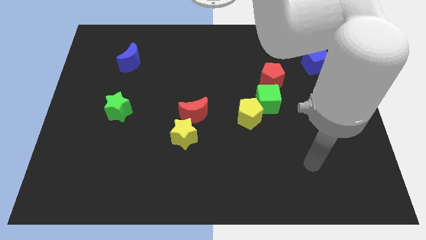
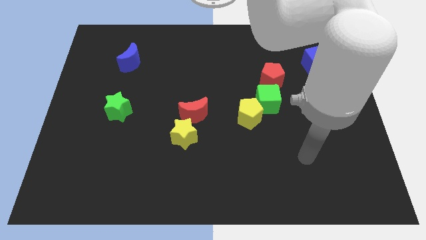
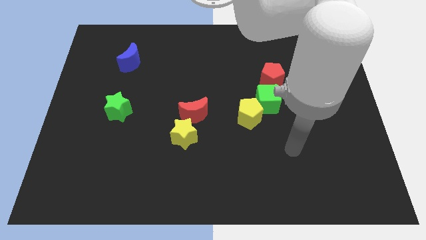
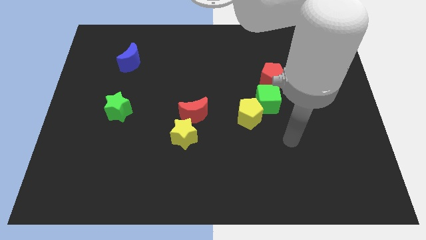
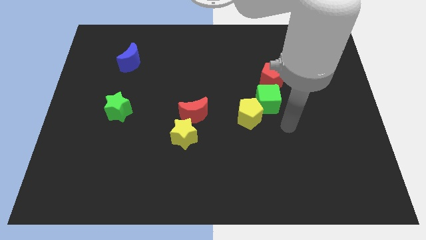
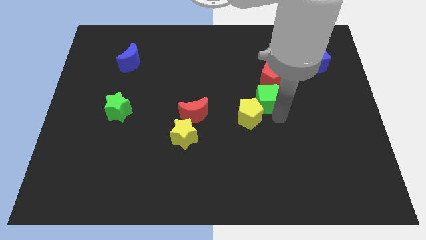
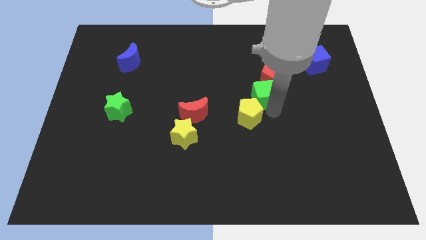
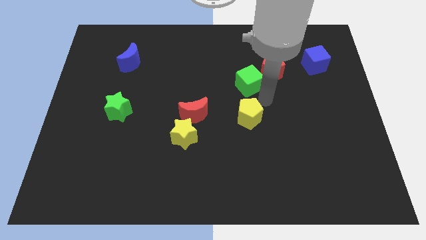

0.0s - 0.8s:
separate the yellow pentagon from the green cube

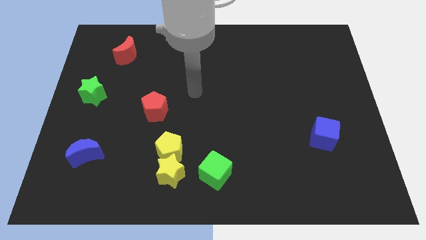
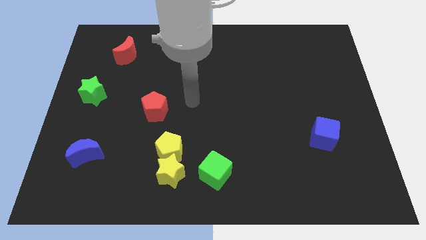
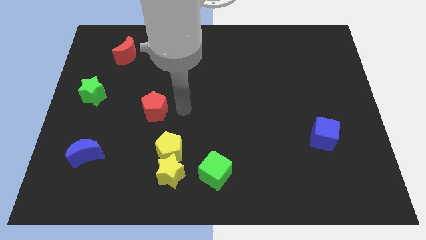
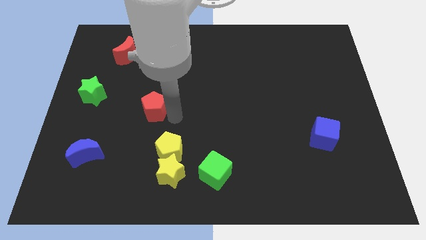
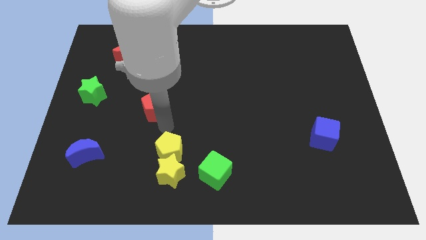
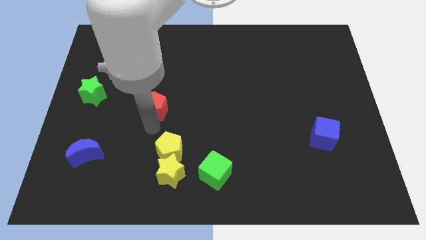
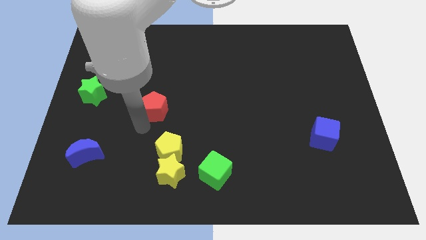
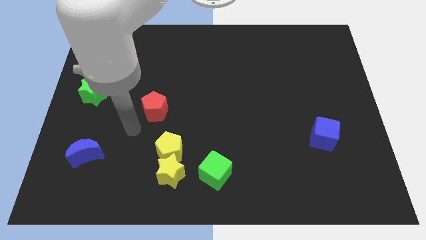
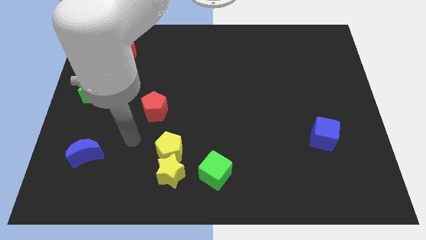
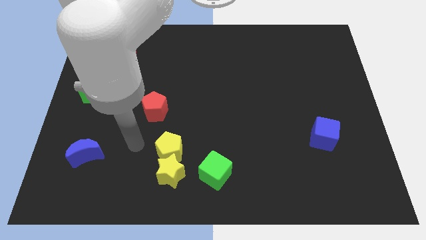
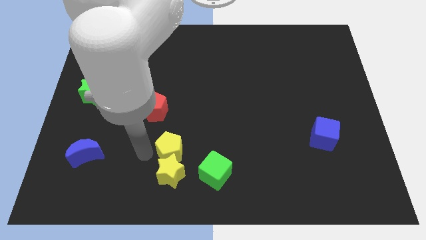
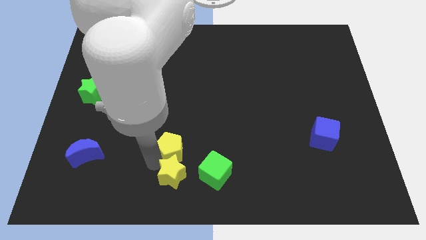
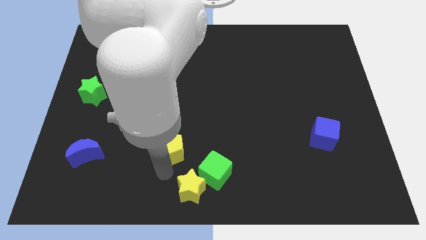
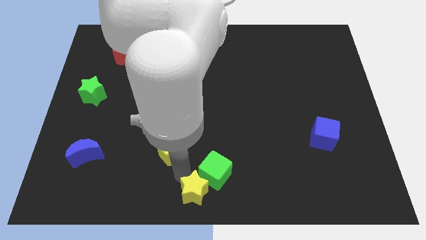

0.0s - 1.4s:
separate the yellow pentagon from the yellow star

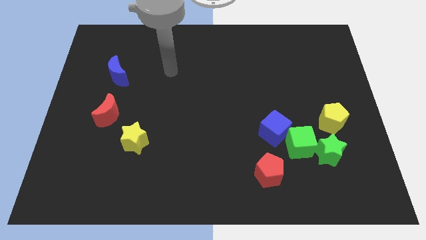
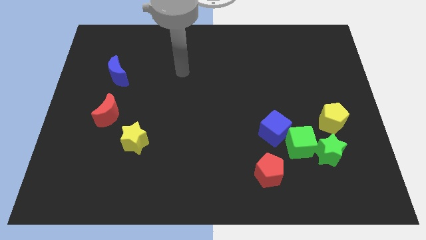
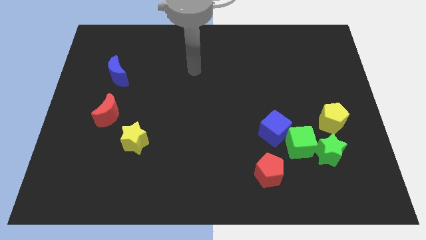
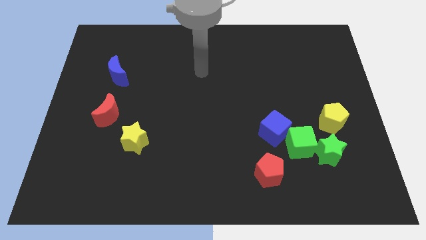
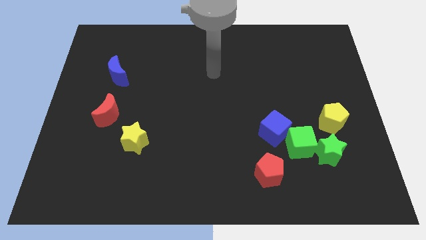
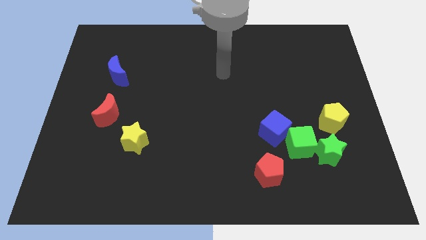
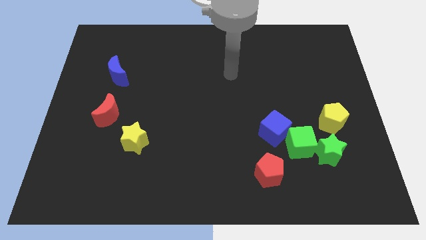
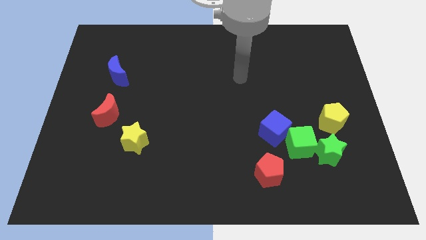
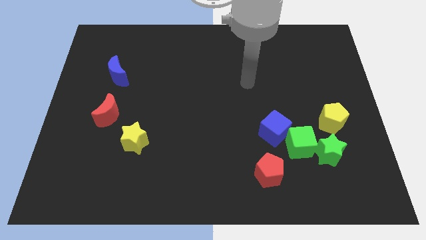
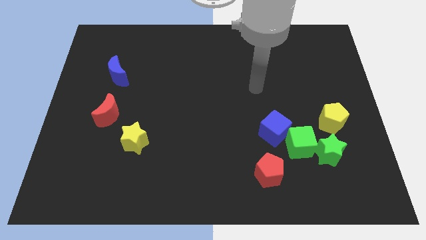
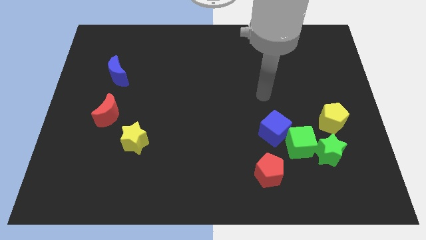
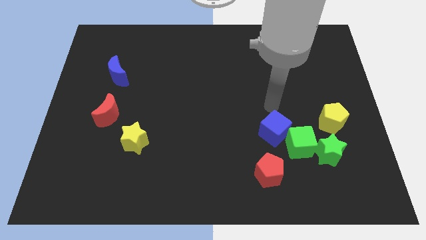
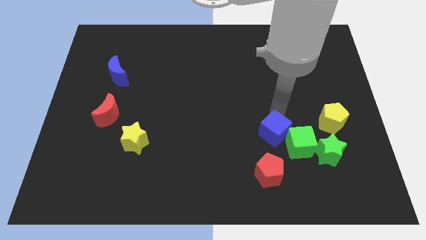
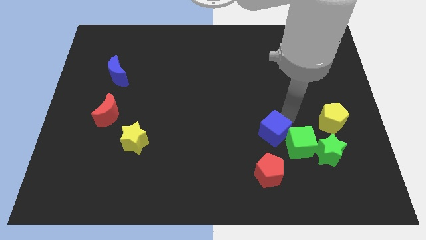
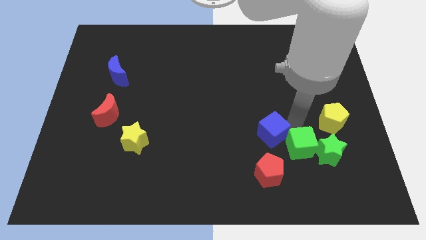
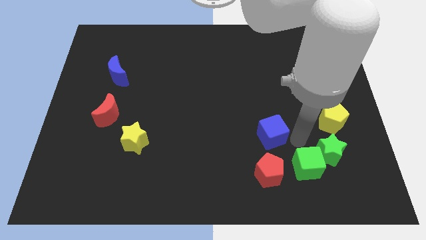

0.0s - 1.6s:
move the blue cube away from the green cube

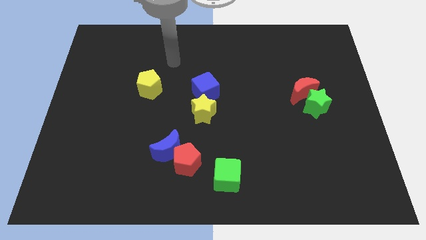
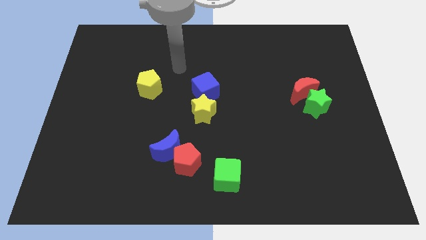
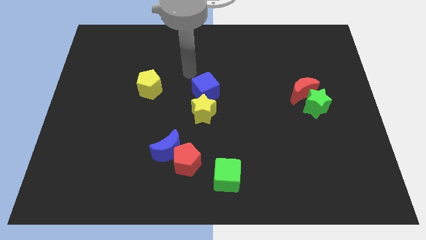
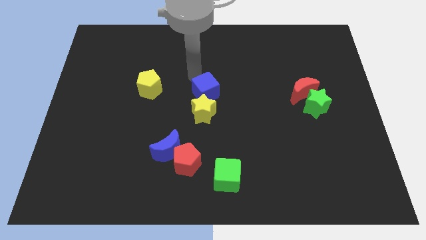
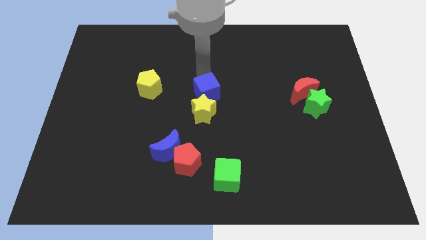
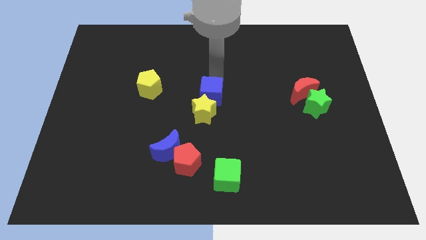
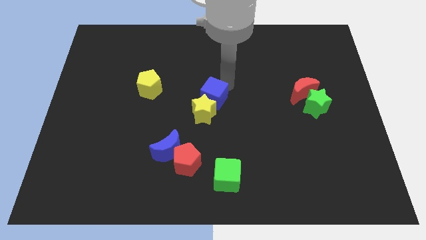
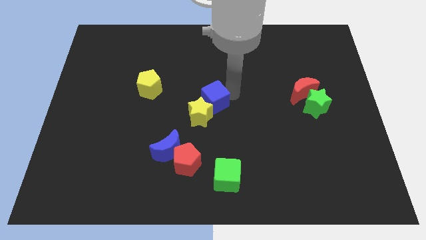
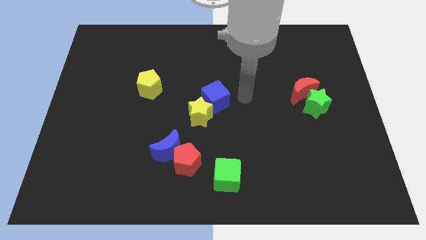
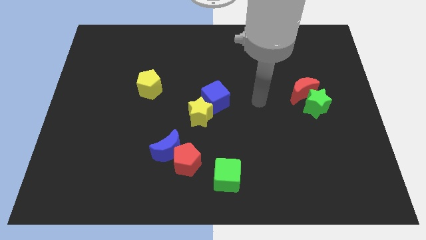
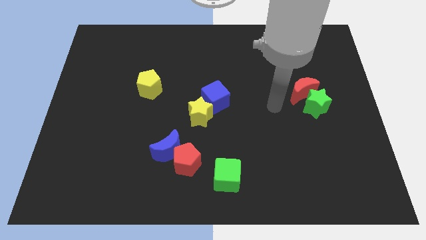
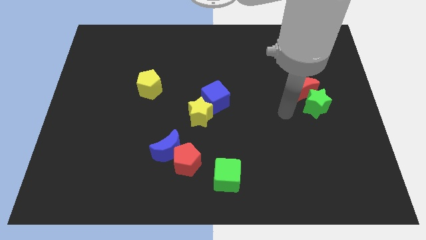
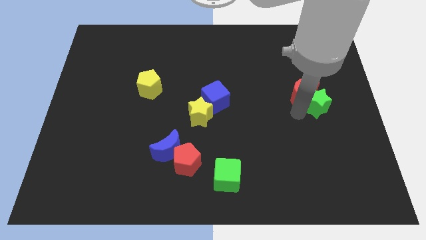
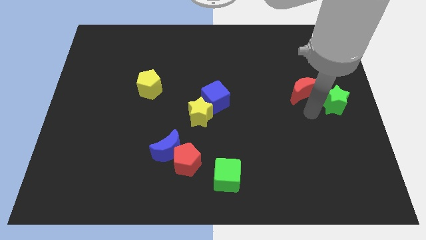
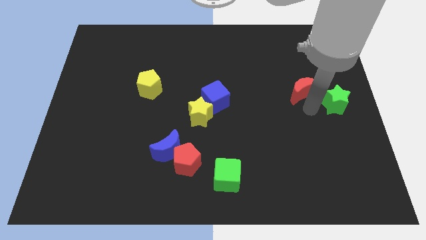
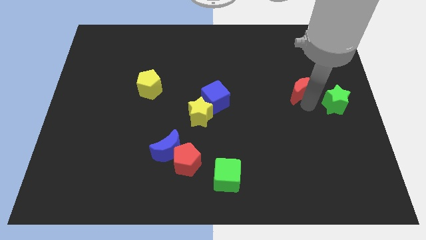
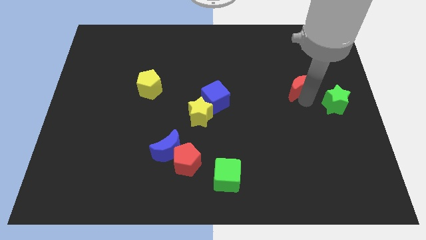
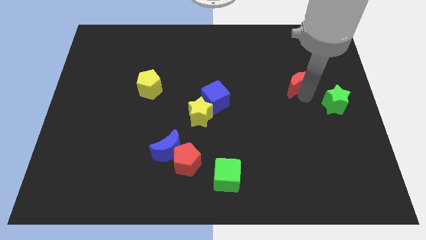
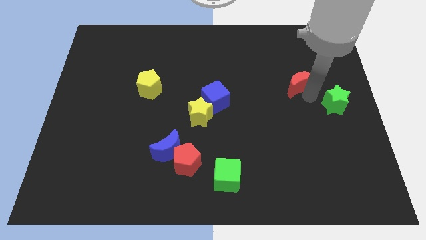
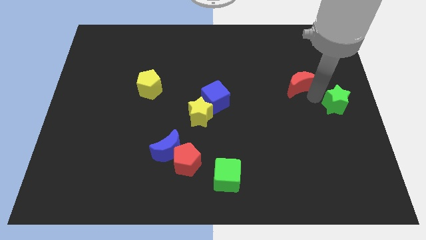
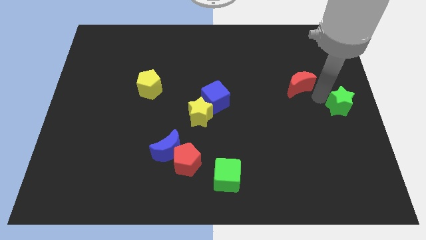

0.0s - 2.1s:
move the red moon away from the green star

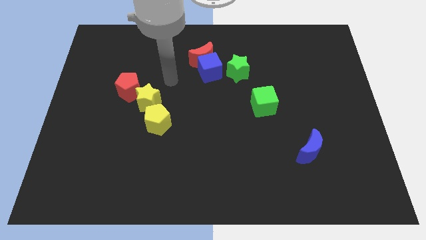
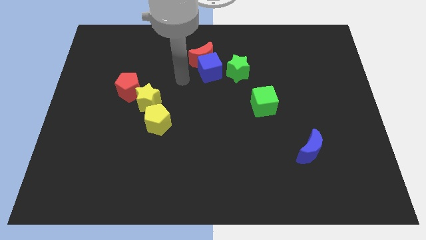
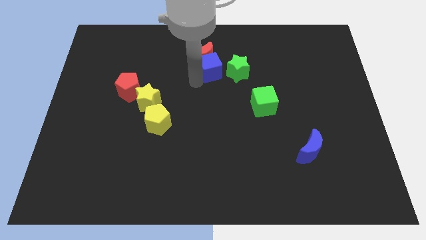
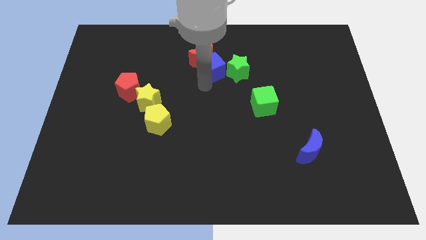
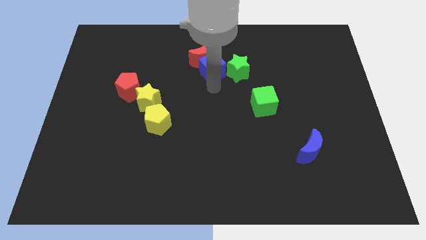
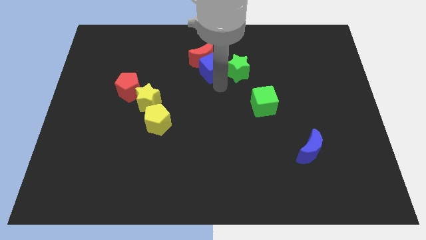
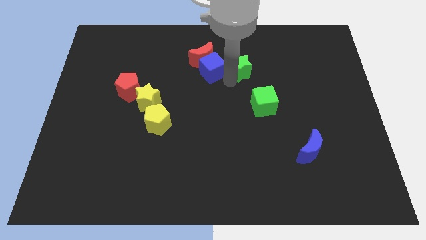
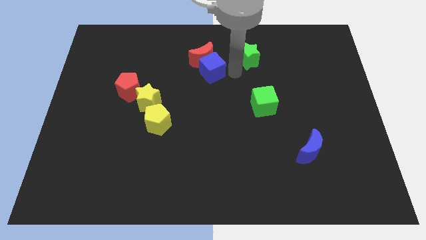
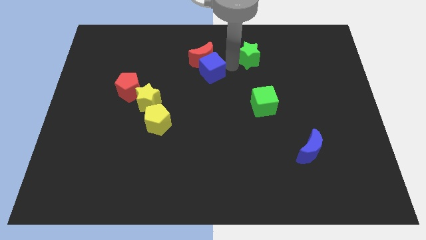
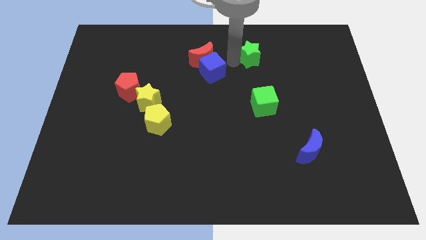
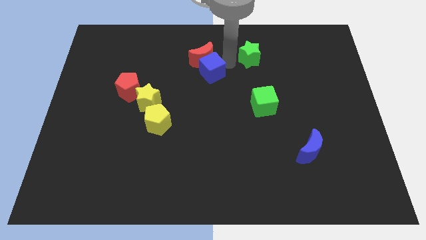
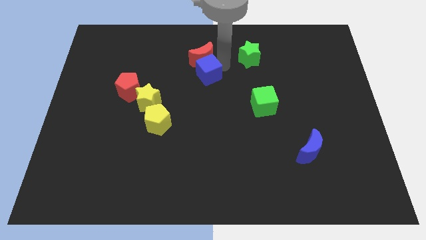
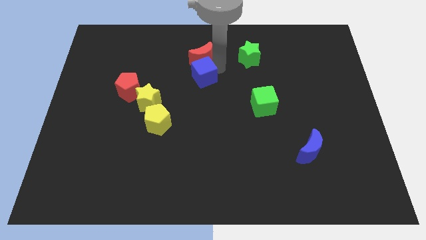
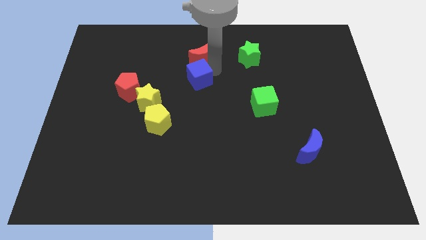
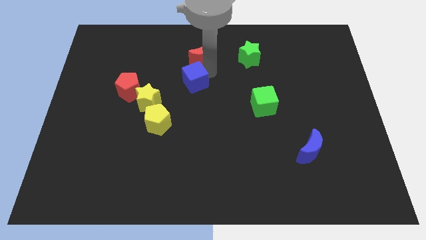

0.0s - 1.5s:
move the blue cube away from the red moon and green star

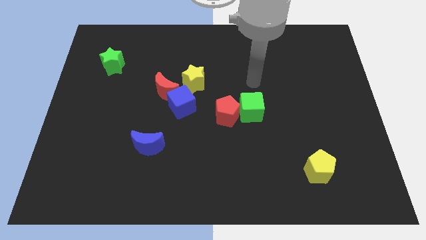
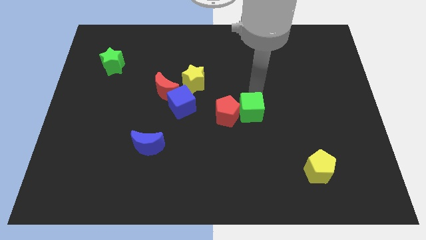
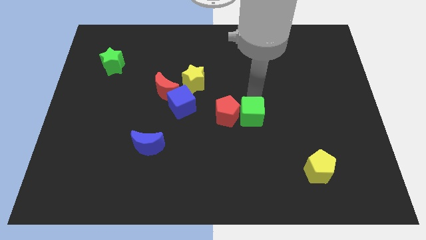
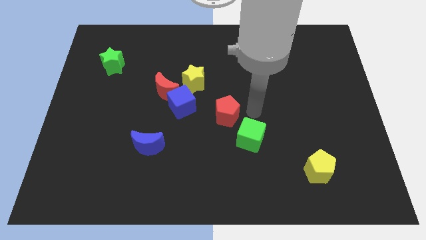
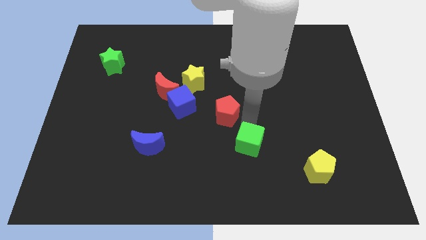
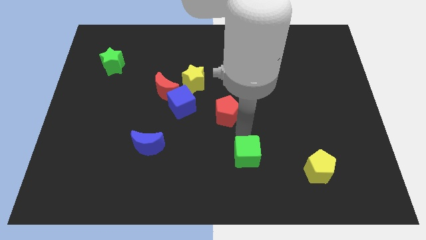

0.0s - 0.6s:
pull the red pentagon apart from the green cube

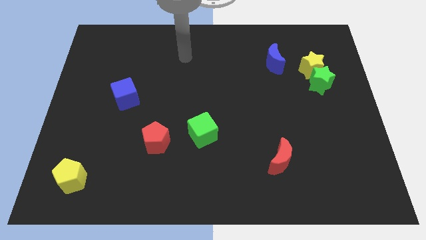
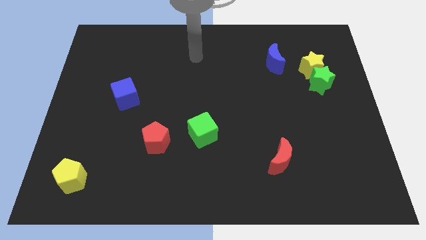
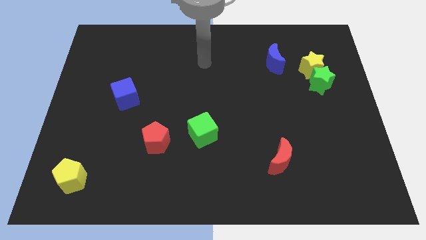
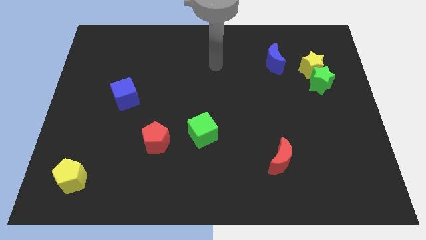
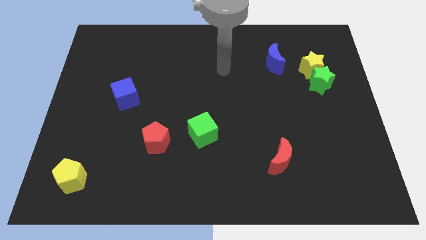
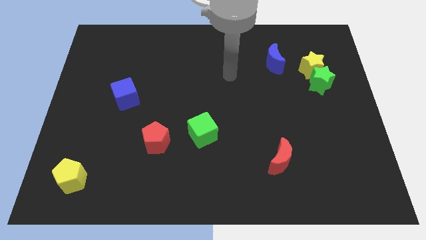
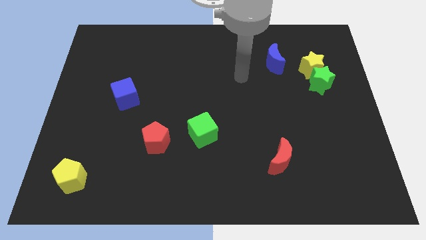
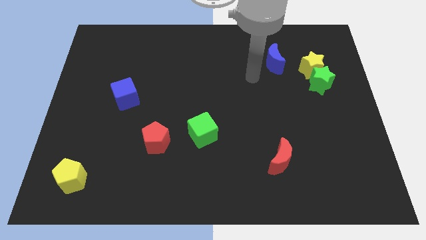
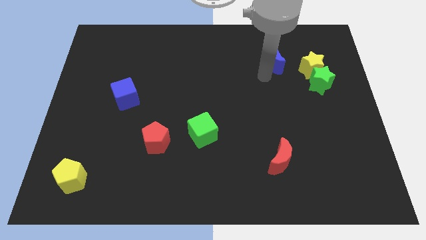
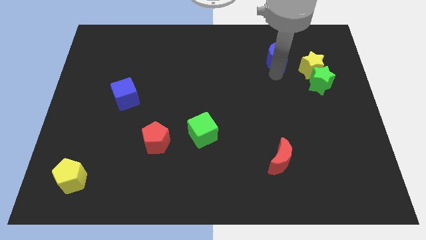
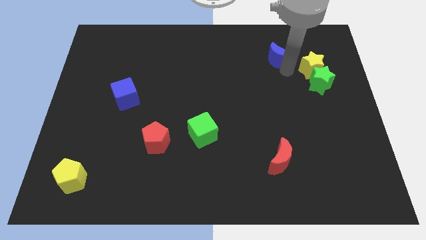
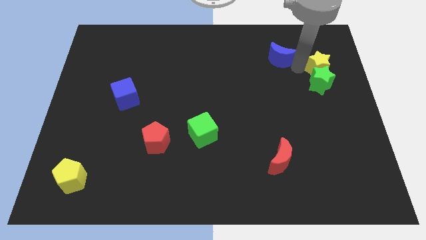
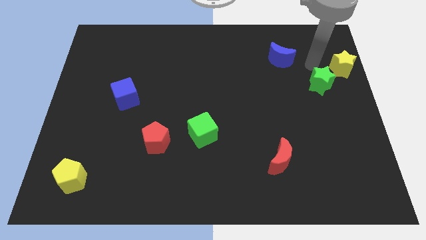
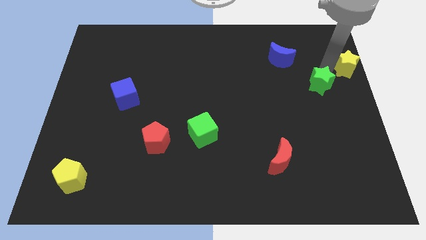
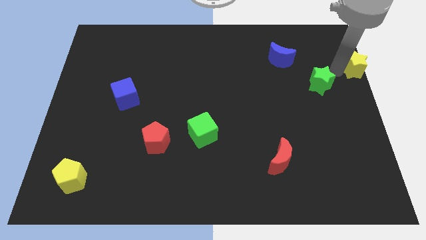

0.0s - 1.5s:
move the green star away from the yellow star
